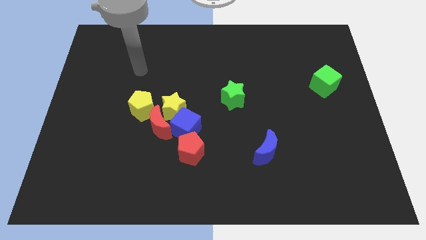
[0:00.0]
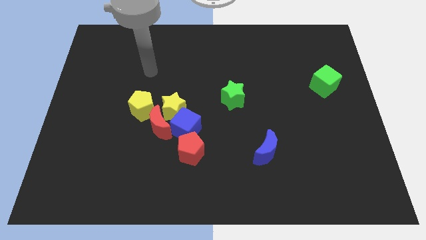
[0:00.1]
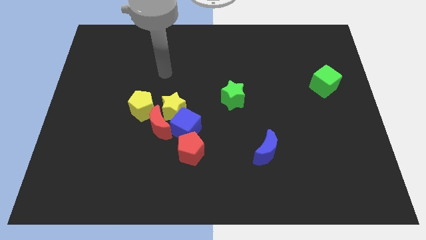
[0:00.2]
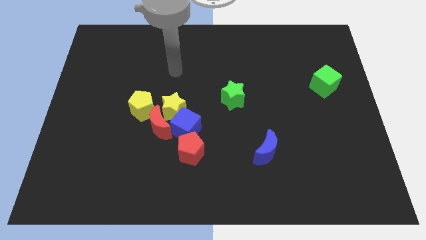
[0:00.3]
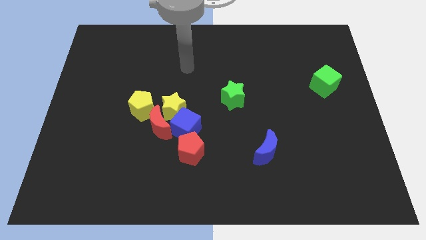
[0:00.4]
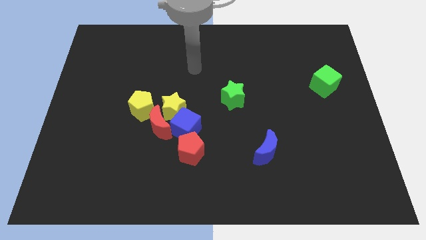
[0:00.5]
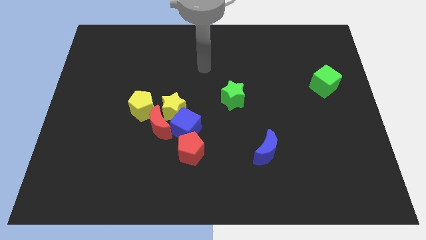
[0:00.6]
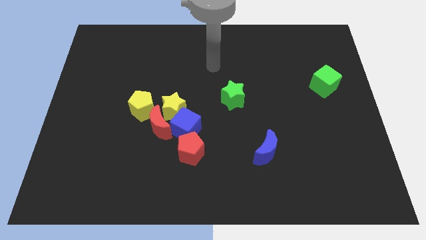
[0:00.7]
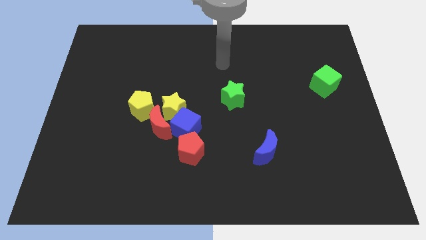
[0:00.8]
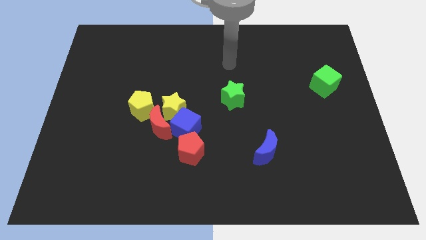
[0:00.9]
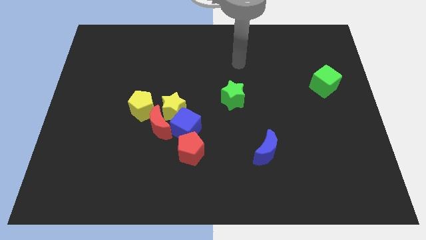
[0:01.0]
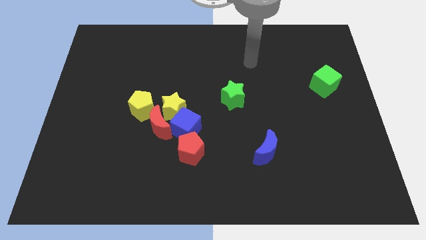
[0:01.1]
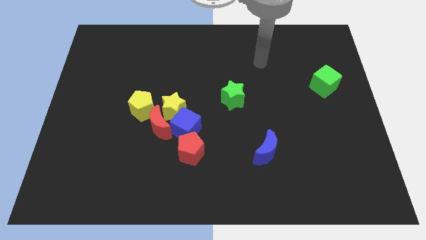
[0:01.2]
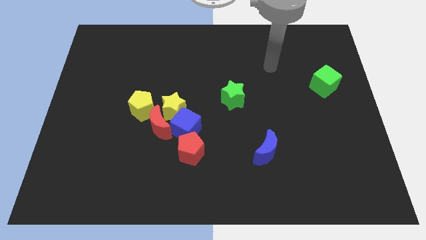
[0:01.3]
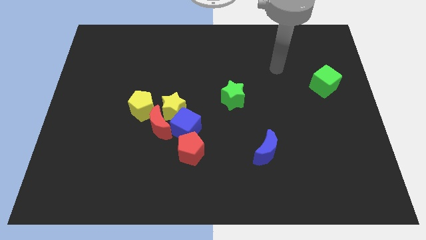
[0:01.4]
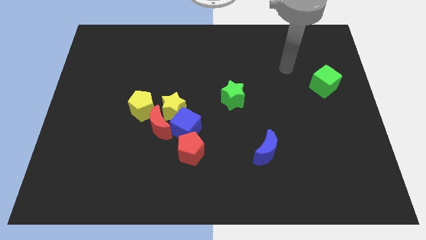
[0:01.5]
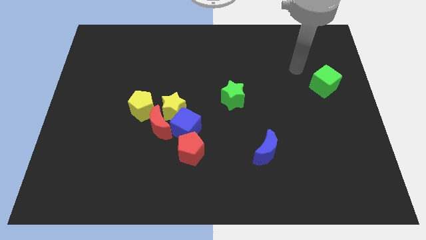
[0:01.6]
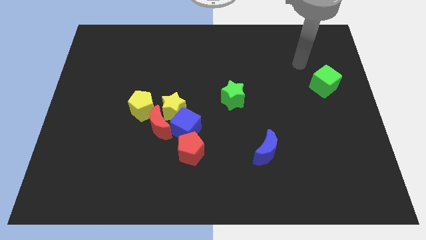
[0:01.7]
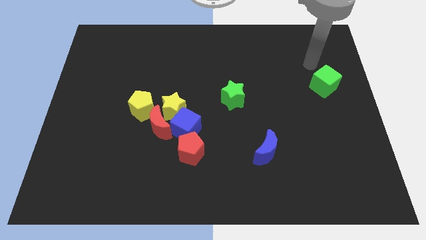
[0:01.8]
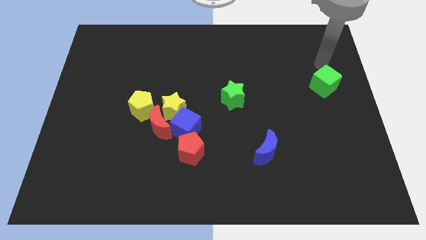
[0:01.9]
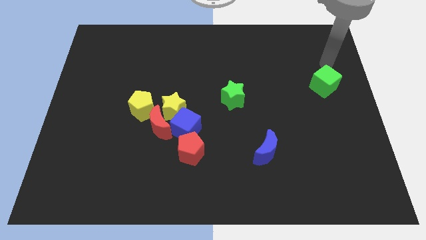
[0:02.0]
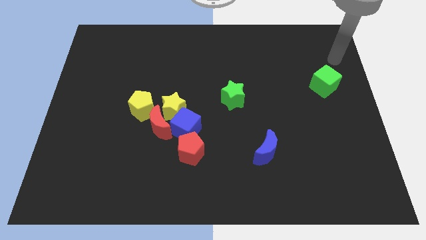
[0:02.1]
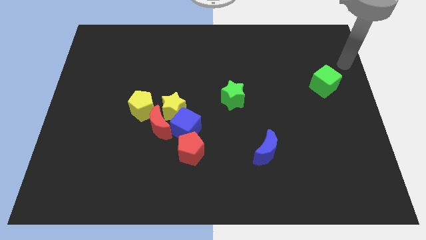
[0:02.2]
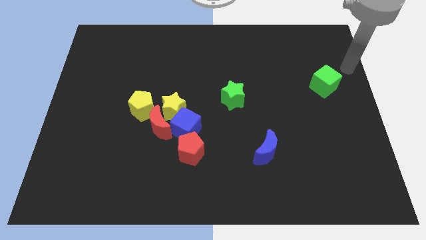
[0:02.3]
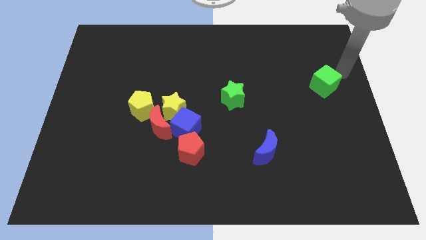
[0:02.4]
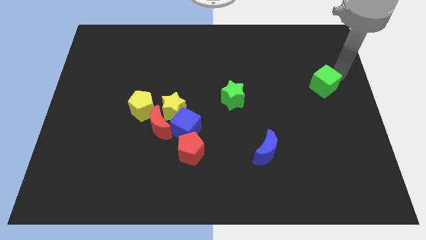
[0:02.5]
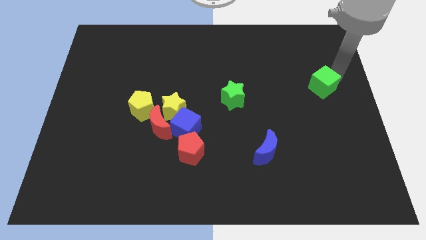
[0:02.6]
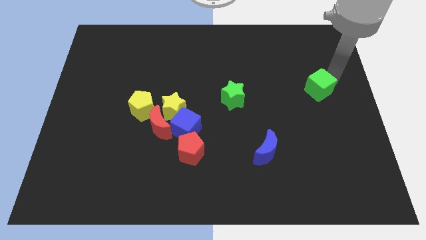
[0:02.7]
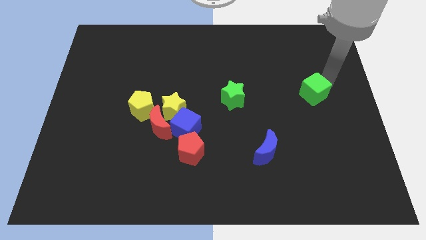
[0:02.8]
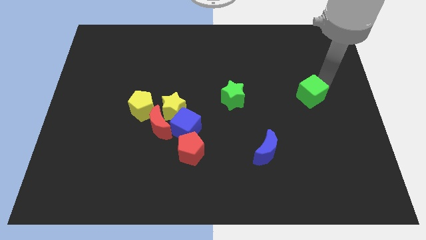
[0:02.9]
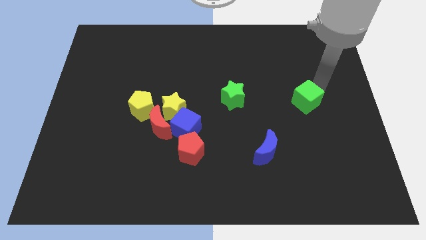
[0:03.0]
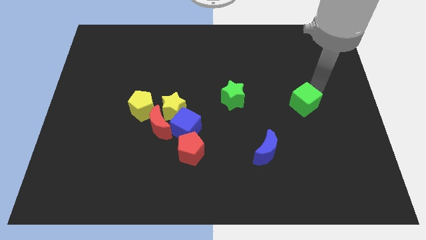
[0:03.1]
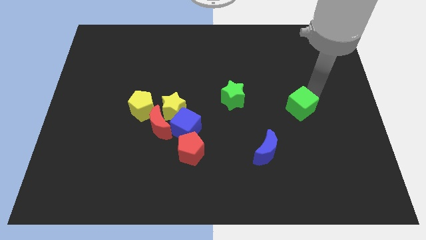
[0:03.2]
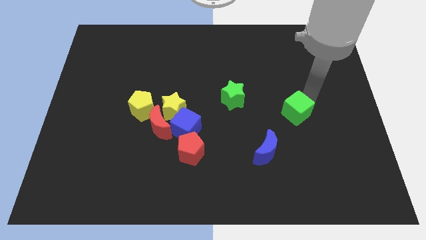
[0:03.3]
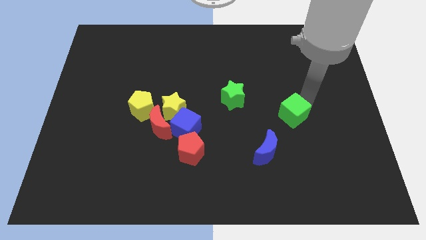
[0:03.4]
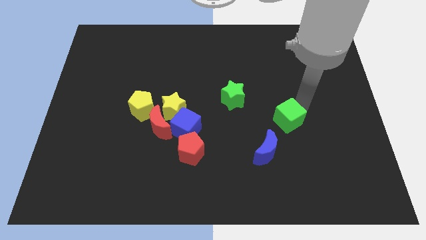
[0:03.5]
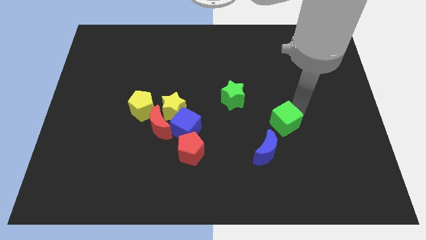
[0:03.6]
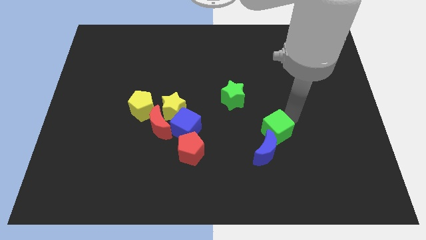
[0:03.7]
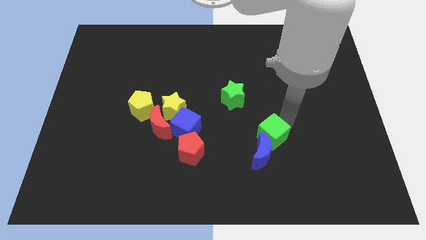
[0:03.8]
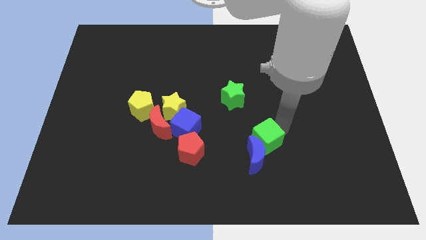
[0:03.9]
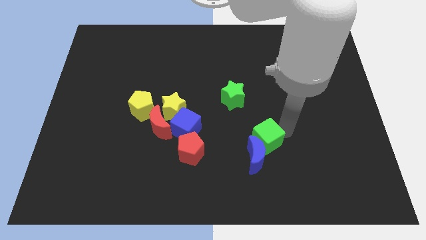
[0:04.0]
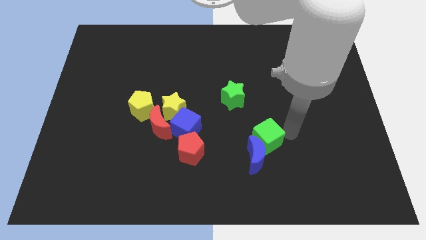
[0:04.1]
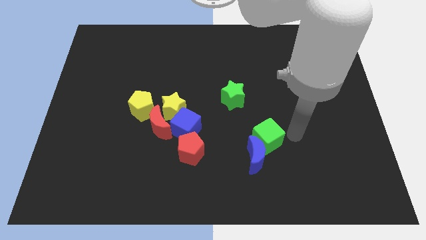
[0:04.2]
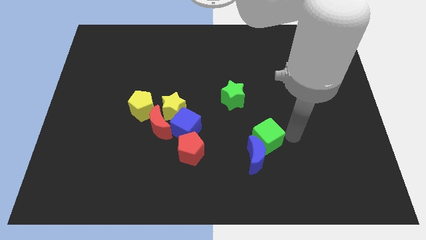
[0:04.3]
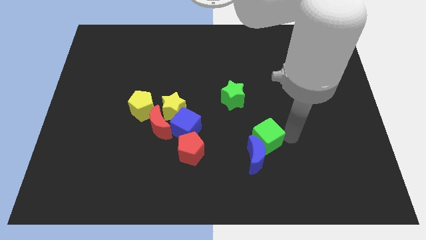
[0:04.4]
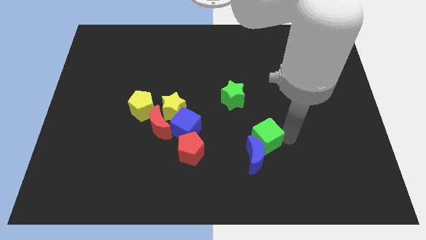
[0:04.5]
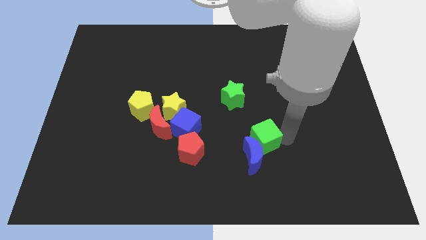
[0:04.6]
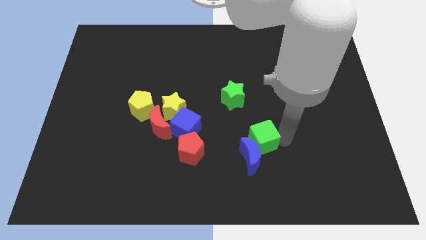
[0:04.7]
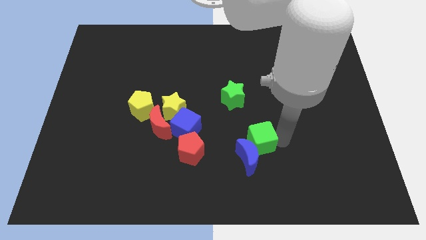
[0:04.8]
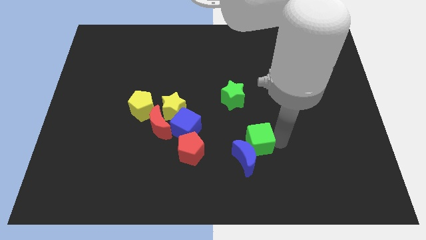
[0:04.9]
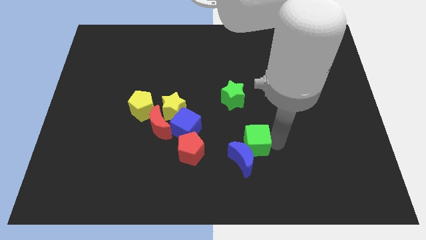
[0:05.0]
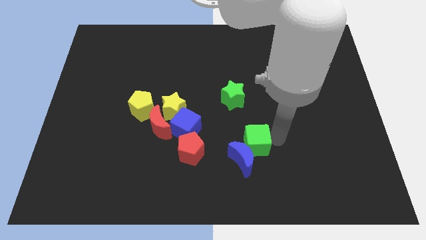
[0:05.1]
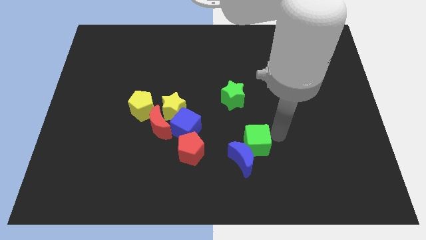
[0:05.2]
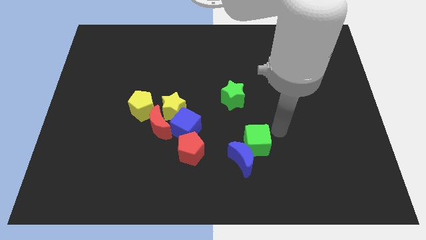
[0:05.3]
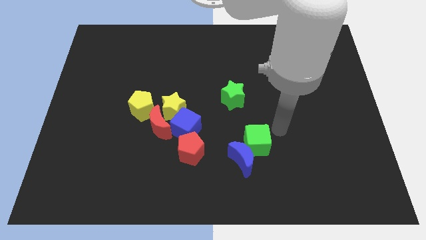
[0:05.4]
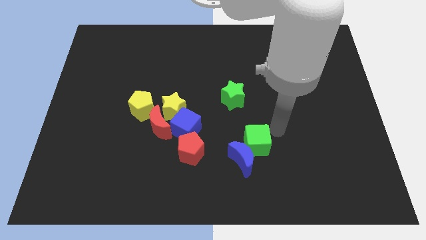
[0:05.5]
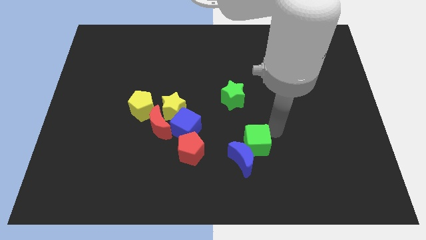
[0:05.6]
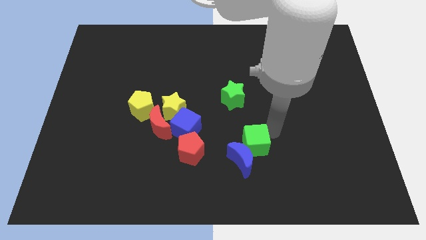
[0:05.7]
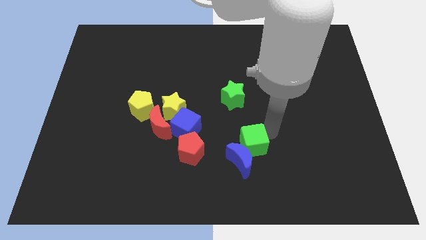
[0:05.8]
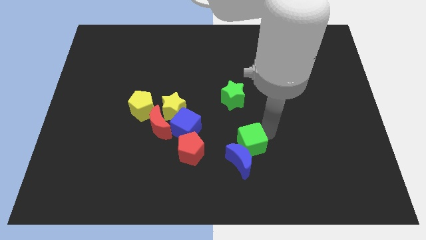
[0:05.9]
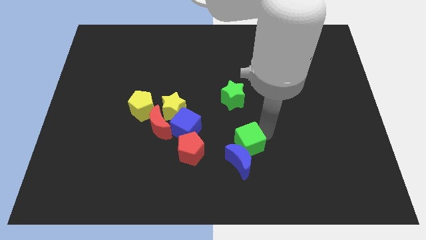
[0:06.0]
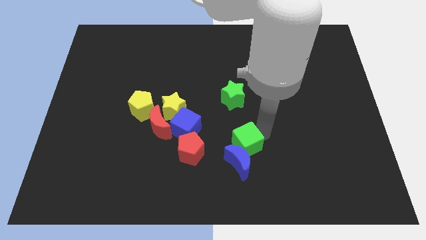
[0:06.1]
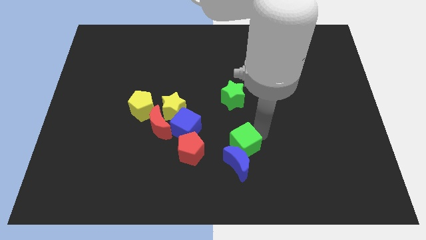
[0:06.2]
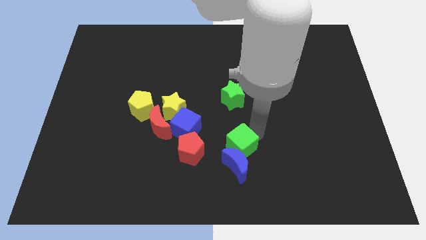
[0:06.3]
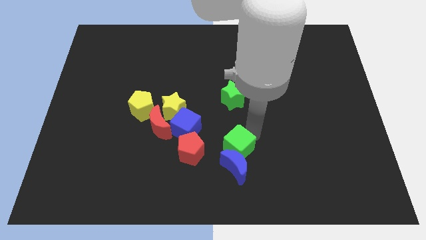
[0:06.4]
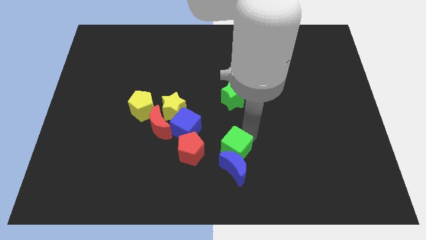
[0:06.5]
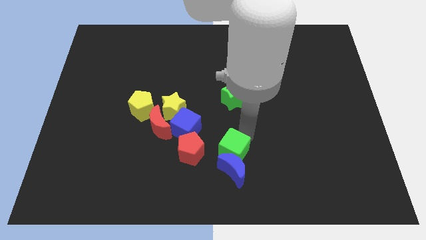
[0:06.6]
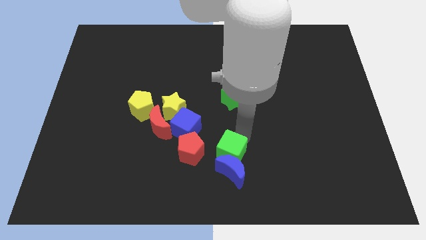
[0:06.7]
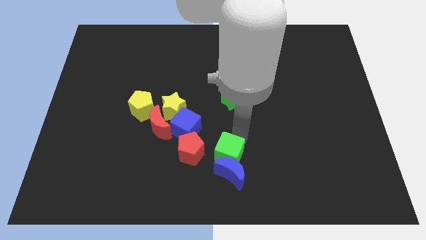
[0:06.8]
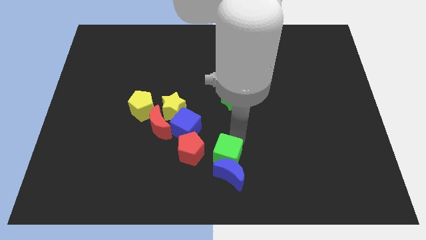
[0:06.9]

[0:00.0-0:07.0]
push the green cube to the bottom
